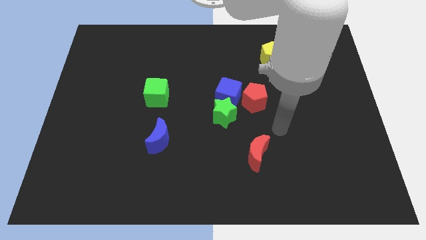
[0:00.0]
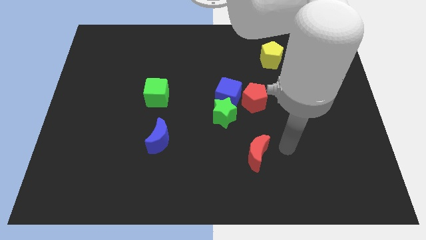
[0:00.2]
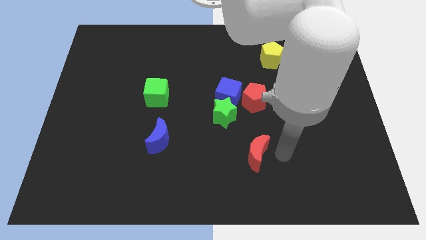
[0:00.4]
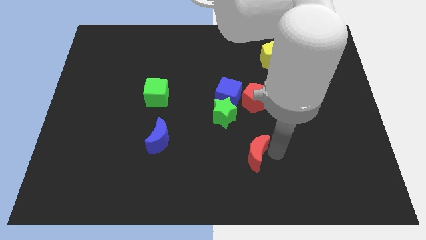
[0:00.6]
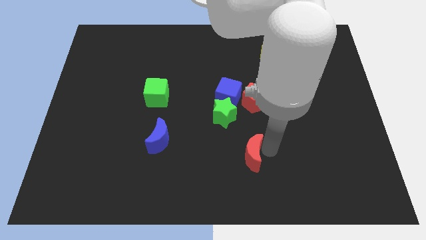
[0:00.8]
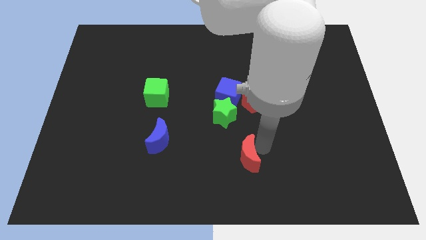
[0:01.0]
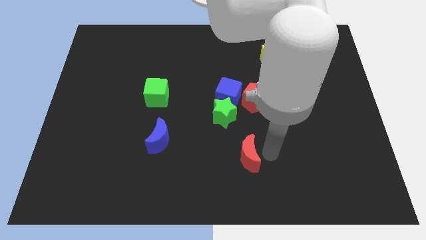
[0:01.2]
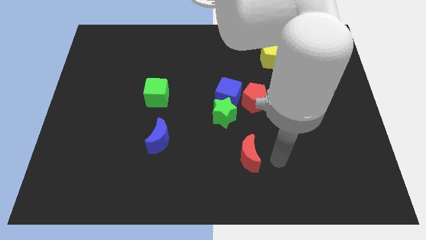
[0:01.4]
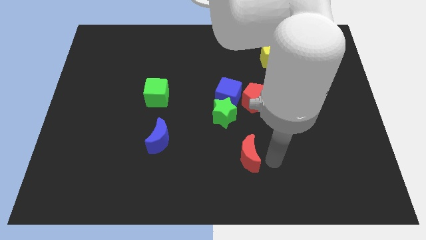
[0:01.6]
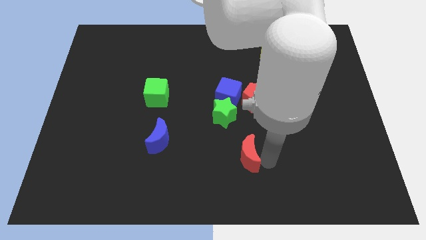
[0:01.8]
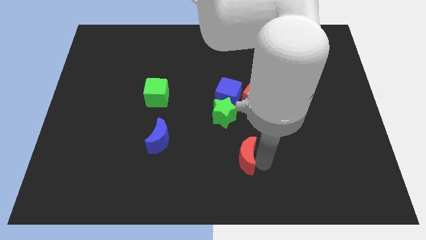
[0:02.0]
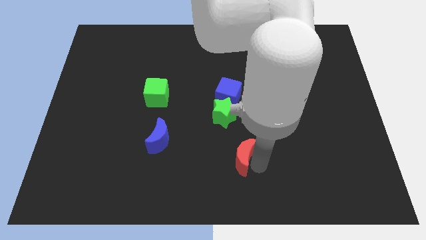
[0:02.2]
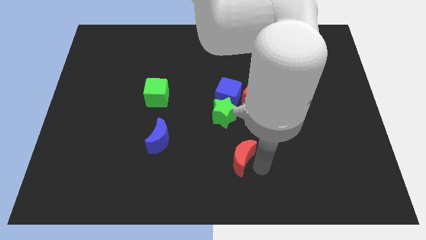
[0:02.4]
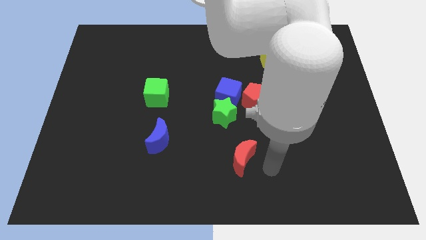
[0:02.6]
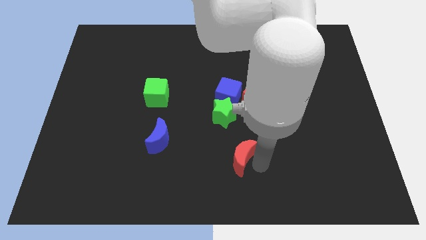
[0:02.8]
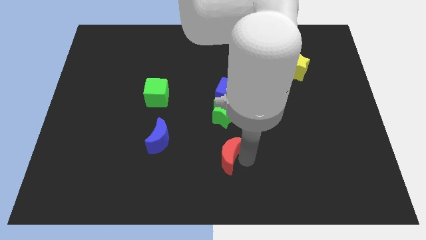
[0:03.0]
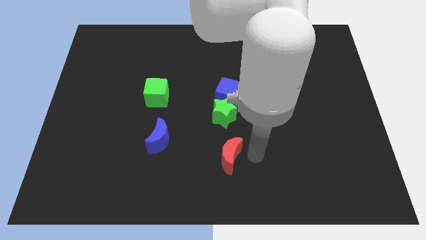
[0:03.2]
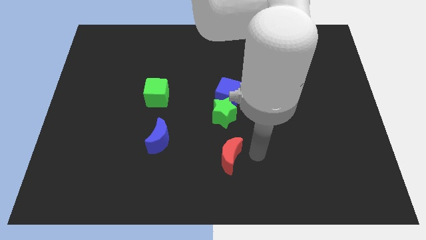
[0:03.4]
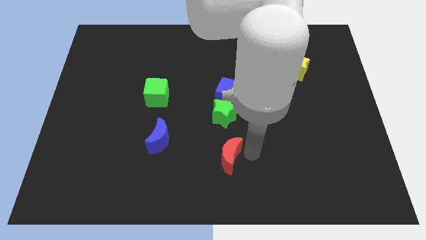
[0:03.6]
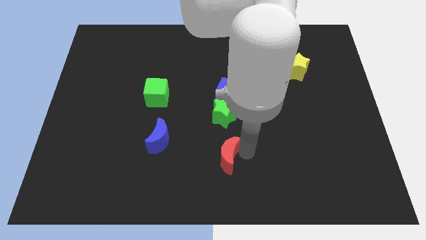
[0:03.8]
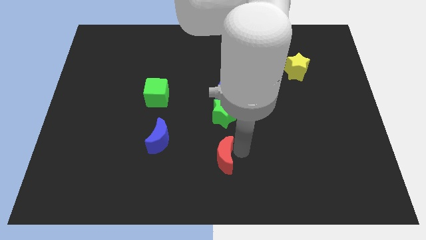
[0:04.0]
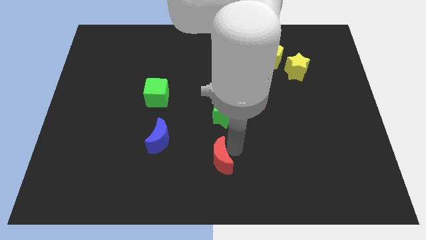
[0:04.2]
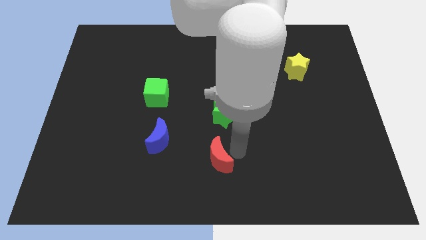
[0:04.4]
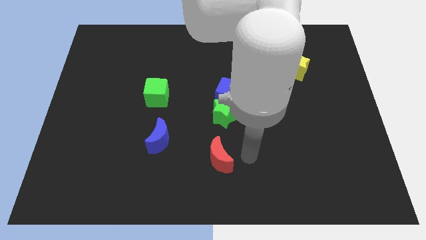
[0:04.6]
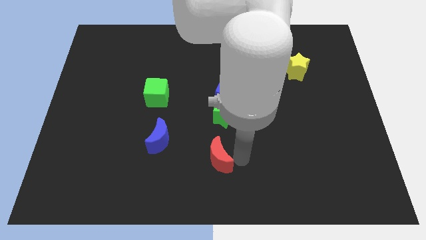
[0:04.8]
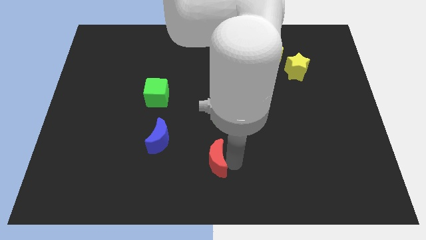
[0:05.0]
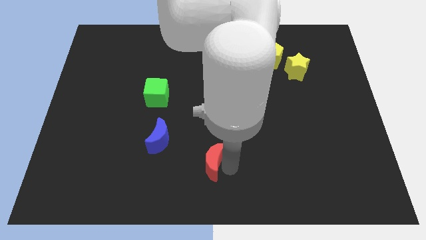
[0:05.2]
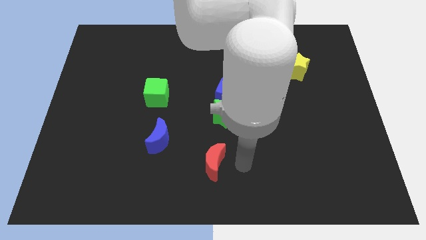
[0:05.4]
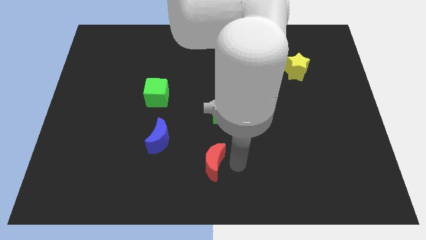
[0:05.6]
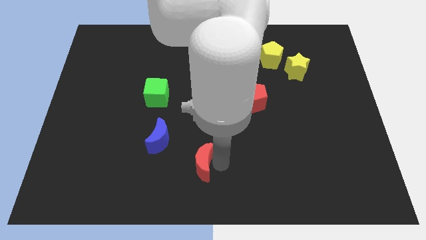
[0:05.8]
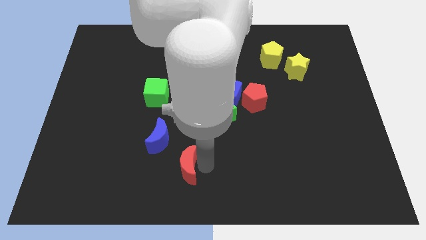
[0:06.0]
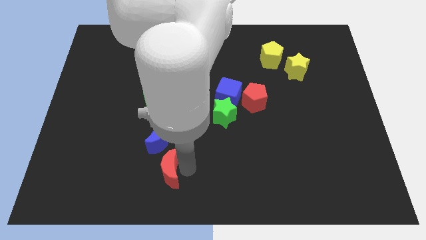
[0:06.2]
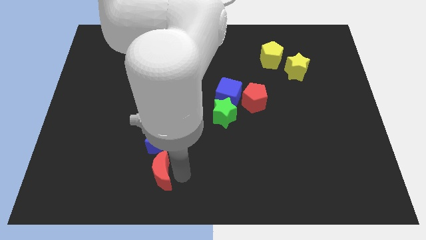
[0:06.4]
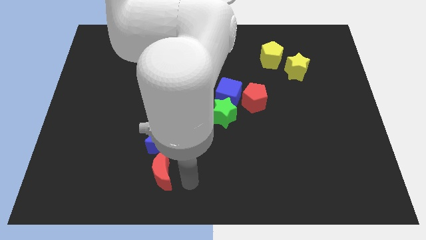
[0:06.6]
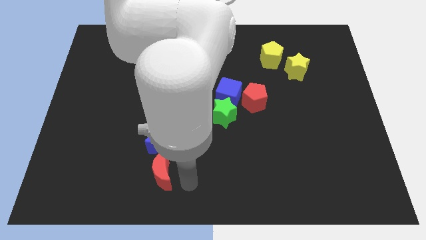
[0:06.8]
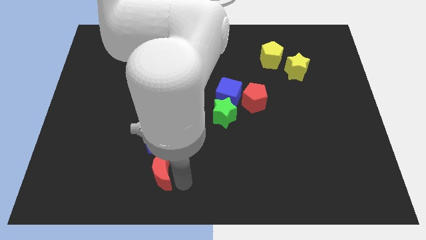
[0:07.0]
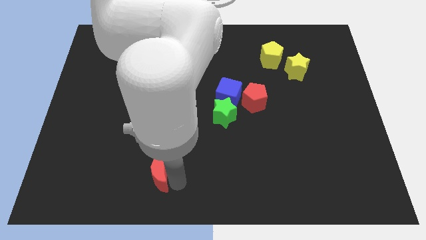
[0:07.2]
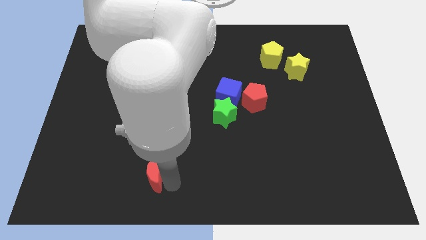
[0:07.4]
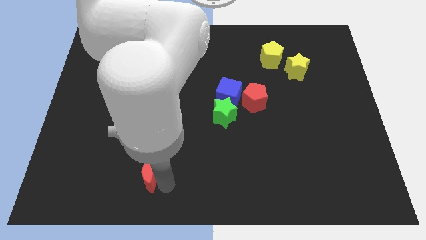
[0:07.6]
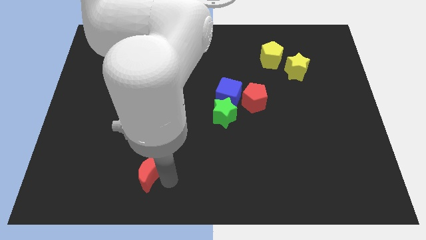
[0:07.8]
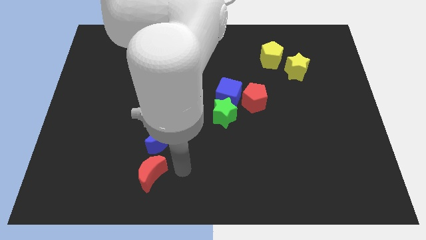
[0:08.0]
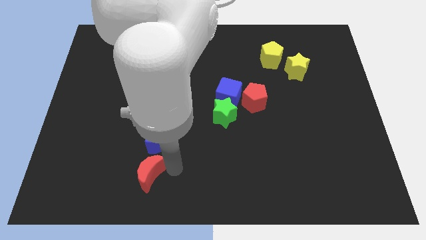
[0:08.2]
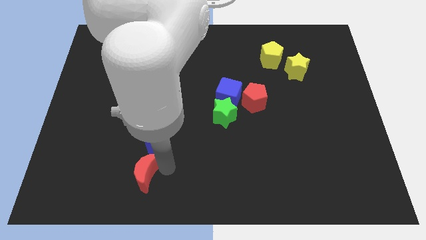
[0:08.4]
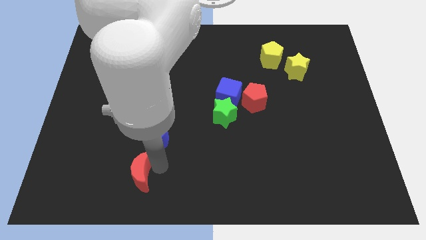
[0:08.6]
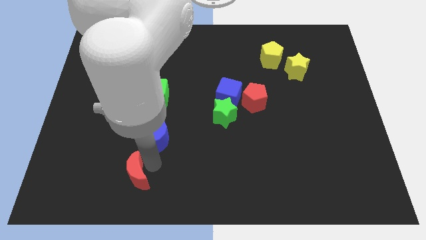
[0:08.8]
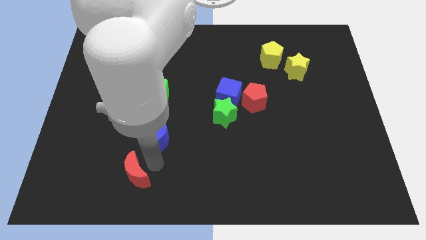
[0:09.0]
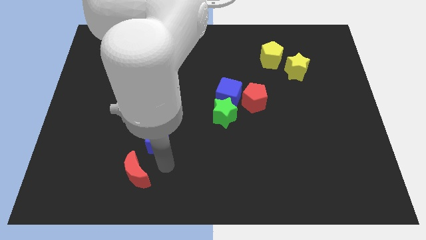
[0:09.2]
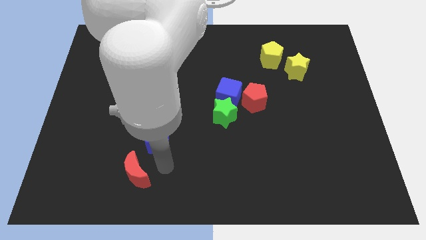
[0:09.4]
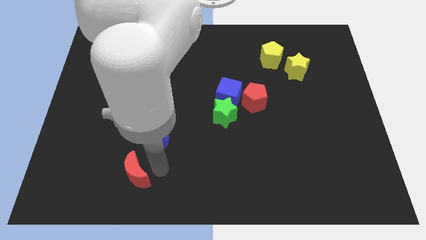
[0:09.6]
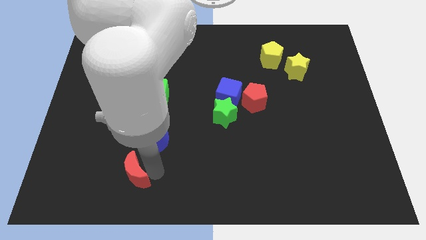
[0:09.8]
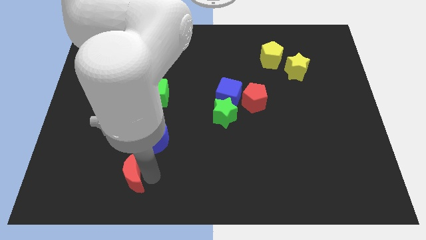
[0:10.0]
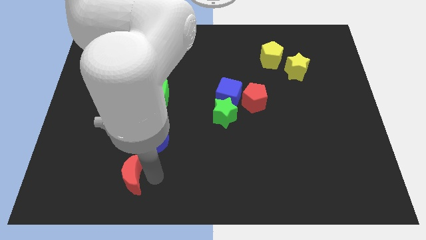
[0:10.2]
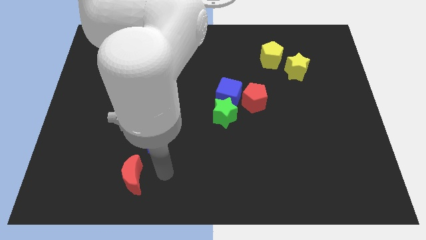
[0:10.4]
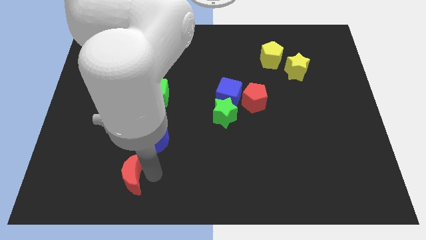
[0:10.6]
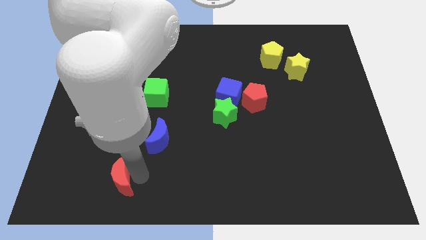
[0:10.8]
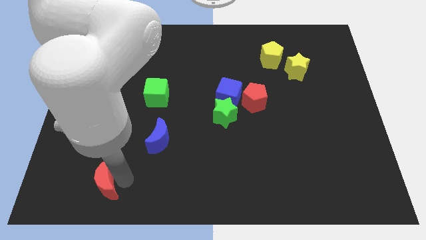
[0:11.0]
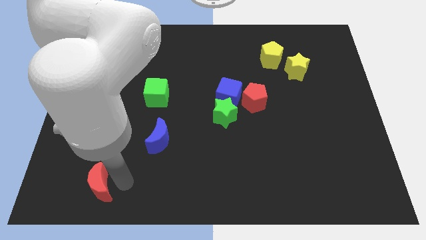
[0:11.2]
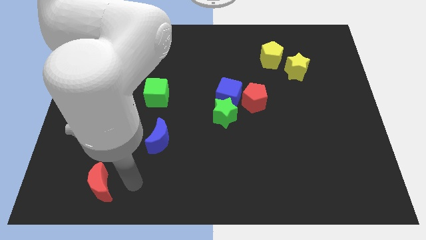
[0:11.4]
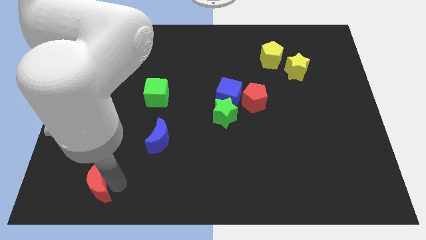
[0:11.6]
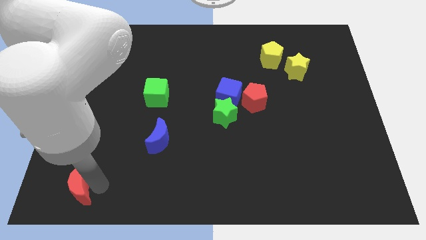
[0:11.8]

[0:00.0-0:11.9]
move the red moon to the bottom left corner

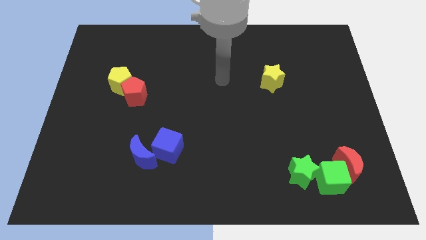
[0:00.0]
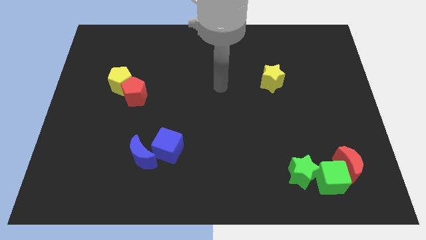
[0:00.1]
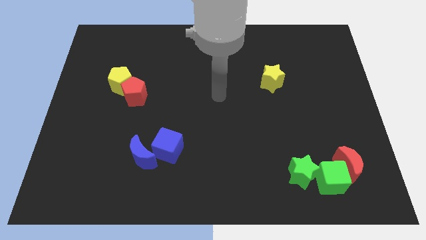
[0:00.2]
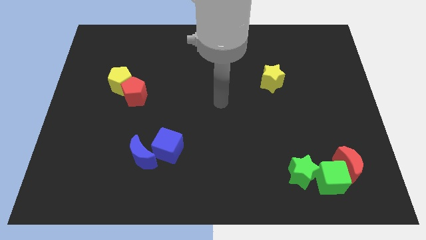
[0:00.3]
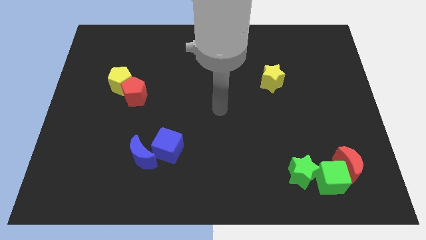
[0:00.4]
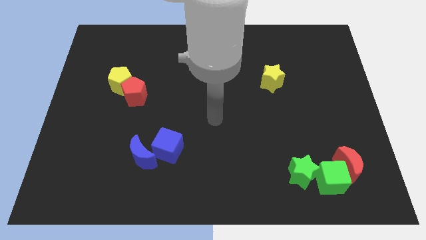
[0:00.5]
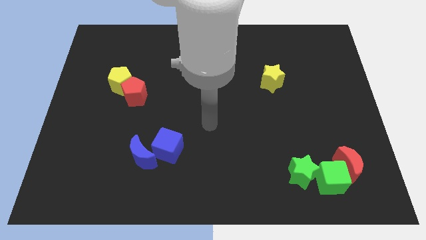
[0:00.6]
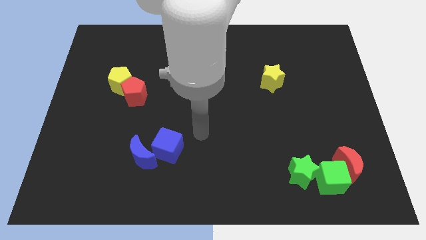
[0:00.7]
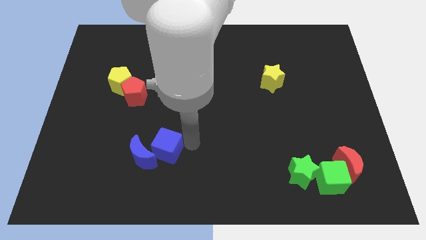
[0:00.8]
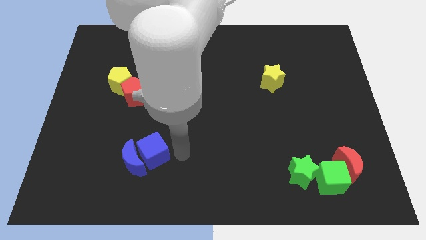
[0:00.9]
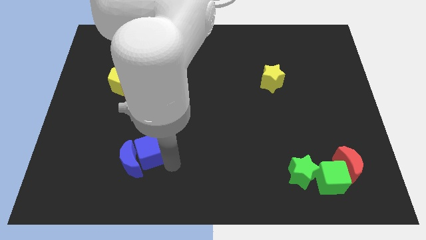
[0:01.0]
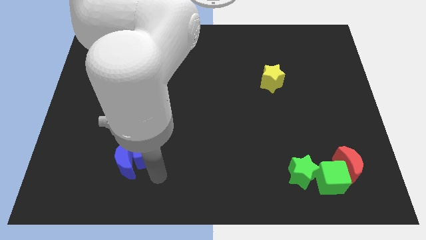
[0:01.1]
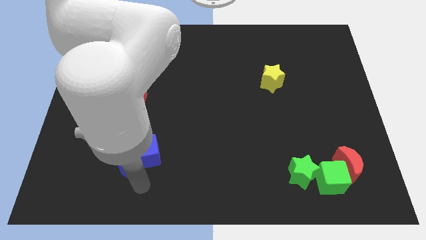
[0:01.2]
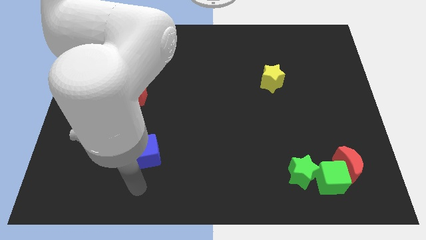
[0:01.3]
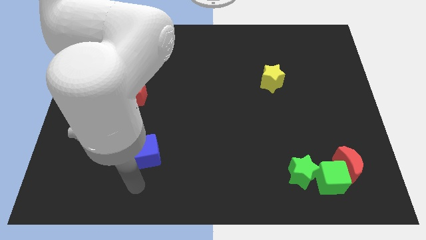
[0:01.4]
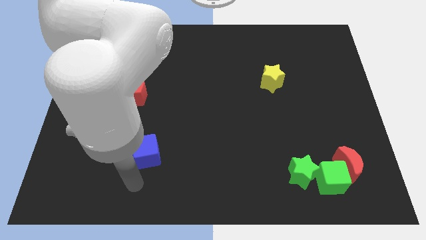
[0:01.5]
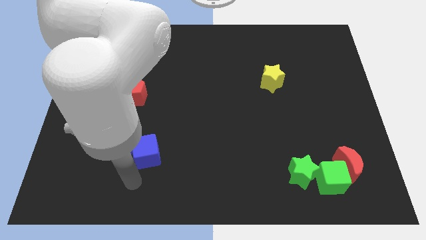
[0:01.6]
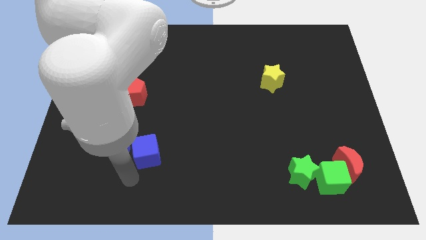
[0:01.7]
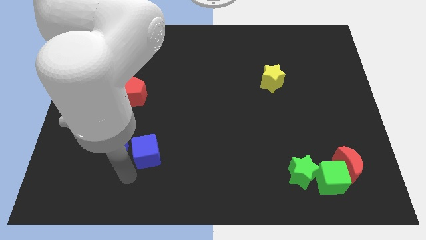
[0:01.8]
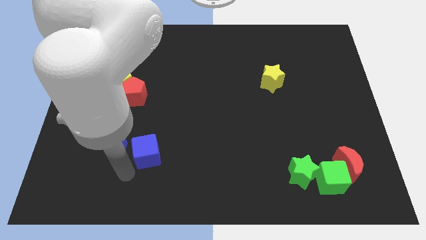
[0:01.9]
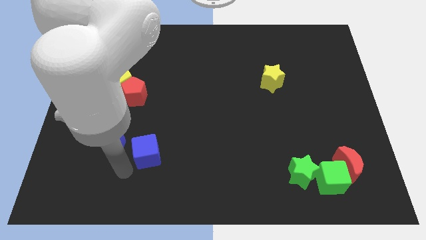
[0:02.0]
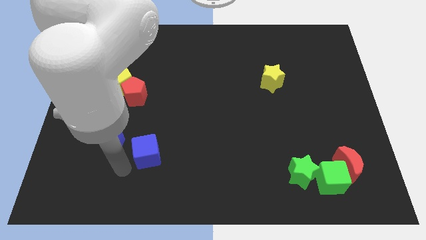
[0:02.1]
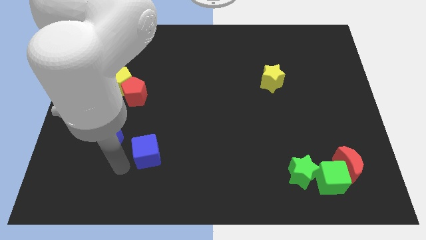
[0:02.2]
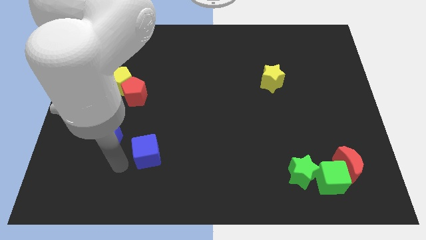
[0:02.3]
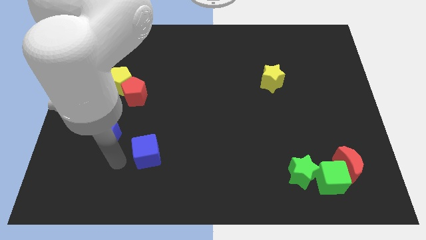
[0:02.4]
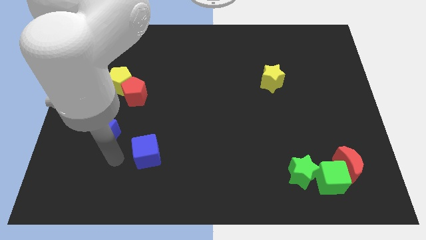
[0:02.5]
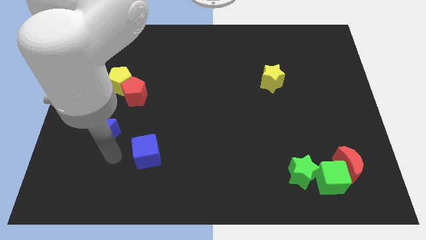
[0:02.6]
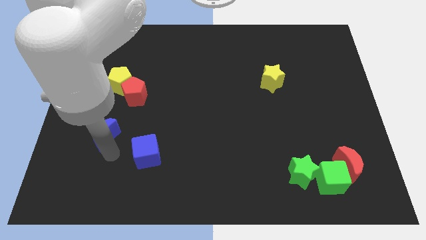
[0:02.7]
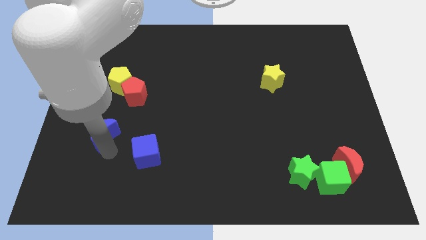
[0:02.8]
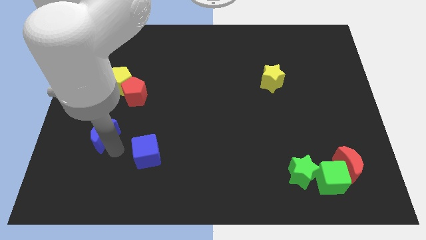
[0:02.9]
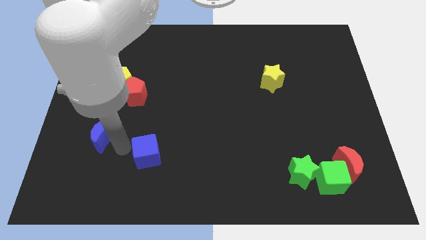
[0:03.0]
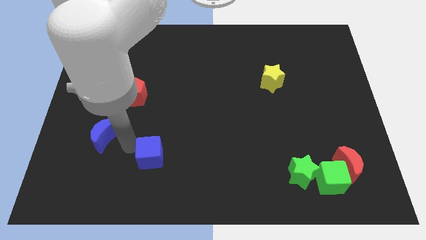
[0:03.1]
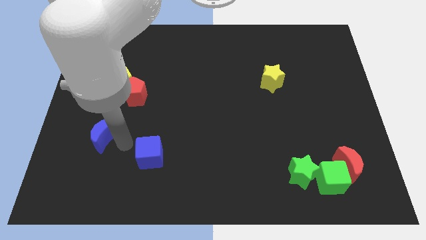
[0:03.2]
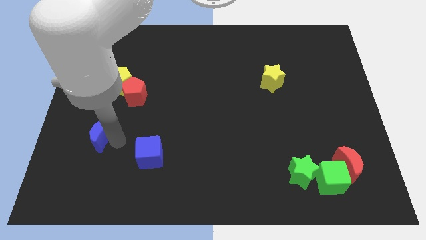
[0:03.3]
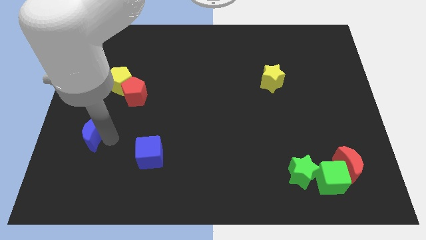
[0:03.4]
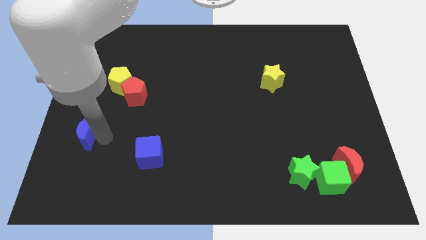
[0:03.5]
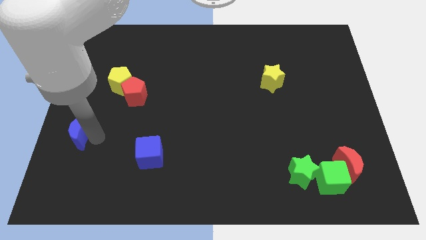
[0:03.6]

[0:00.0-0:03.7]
push the blue moon to the center left
